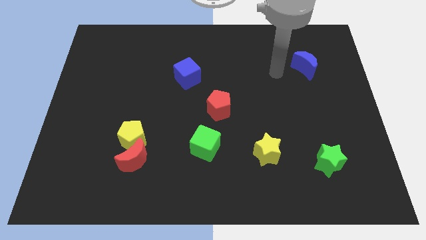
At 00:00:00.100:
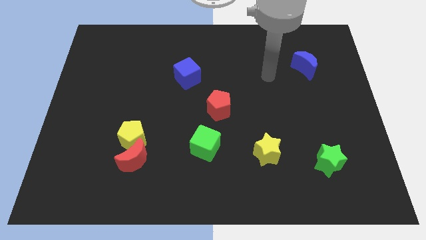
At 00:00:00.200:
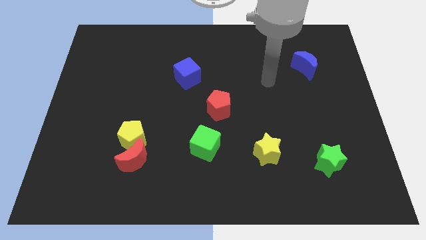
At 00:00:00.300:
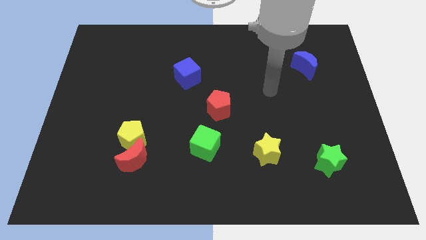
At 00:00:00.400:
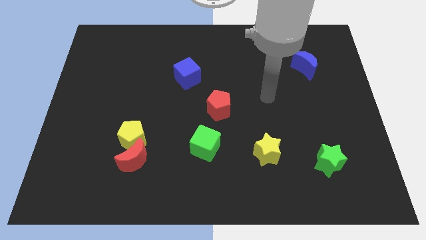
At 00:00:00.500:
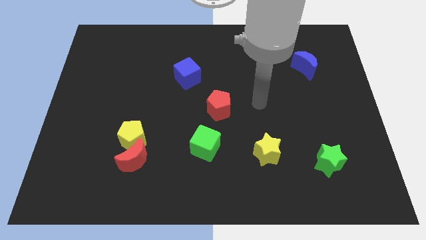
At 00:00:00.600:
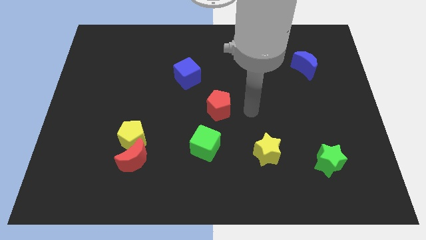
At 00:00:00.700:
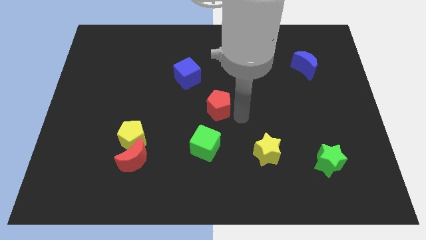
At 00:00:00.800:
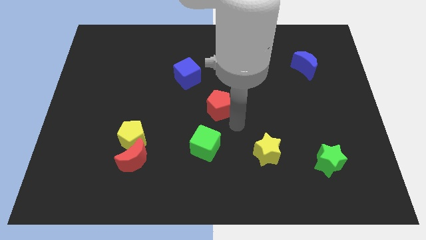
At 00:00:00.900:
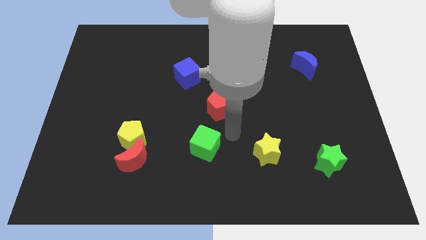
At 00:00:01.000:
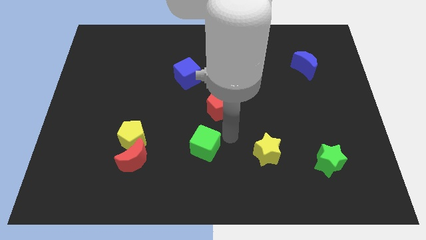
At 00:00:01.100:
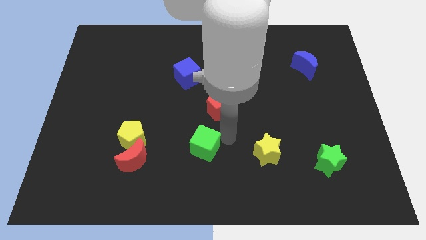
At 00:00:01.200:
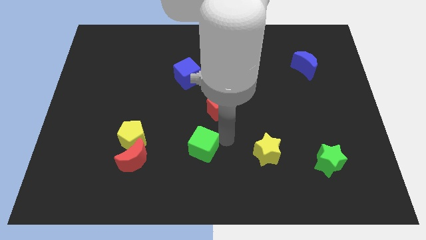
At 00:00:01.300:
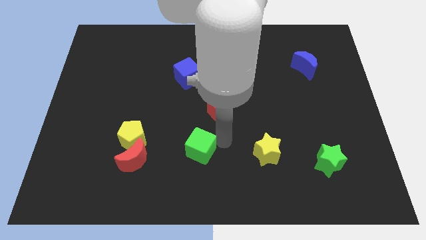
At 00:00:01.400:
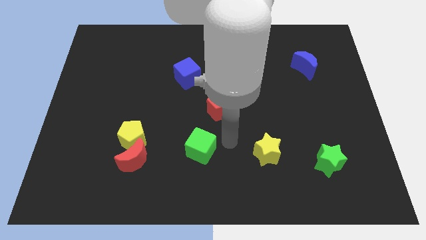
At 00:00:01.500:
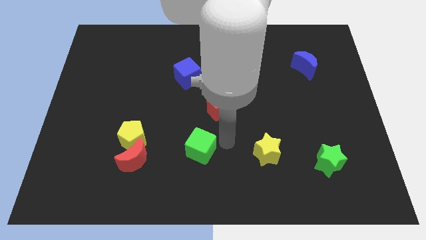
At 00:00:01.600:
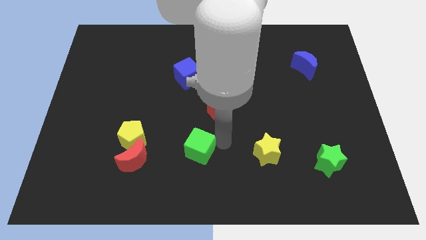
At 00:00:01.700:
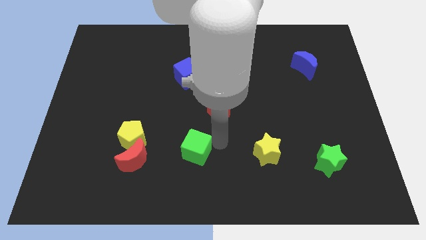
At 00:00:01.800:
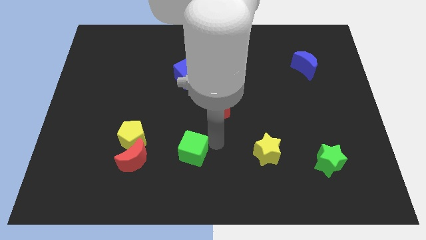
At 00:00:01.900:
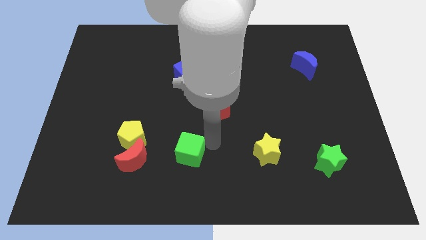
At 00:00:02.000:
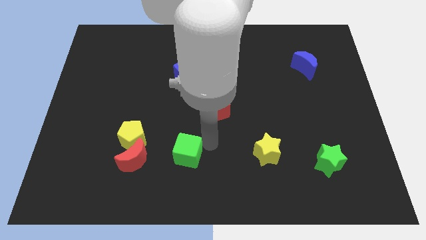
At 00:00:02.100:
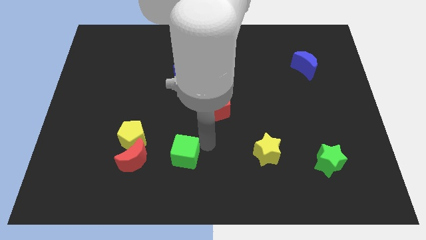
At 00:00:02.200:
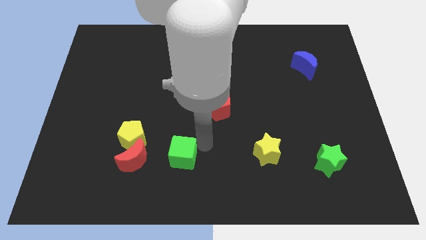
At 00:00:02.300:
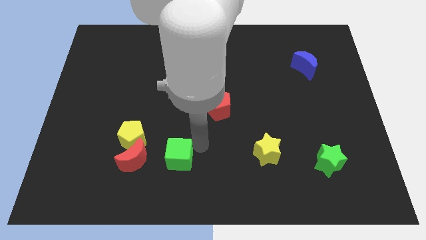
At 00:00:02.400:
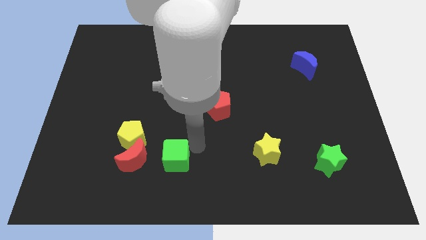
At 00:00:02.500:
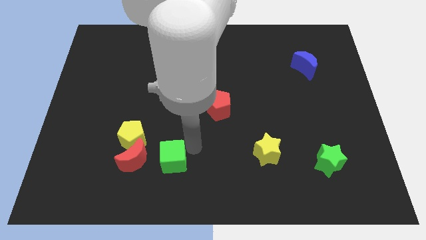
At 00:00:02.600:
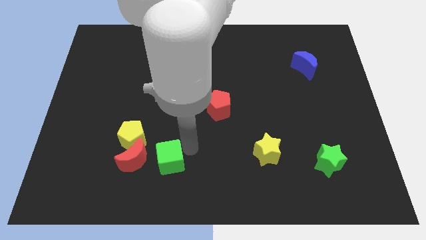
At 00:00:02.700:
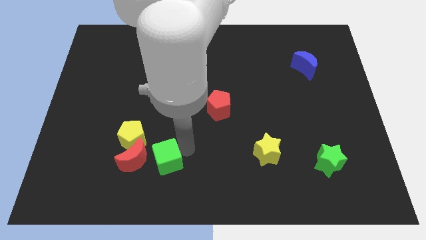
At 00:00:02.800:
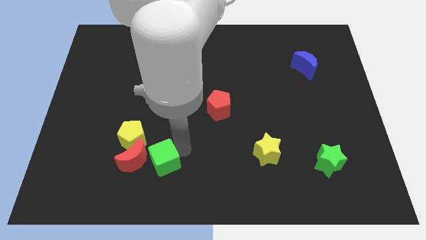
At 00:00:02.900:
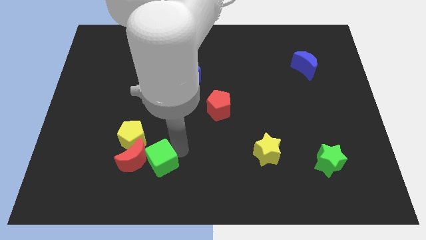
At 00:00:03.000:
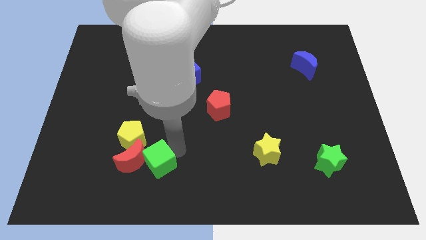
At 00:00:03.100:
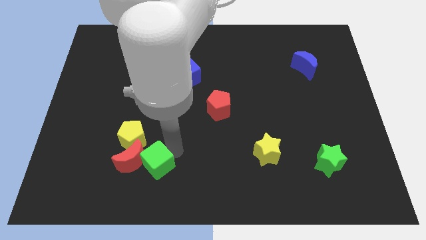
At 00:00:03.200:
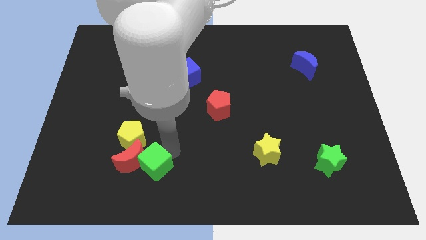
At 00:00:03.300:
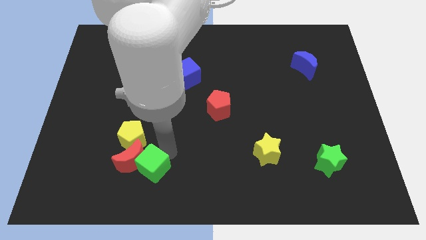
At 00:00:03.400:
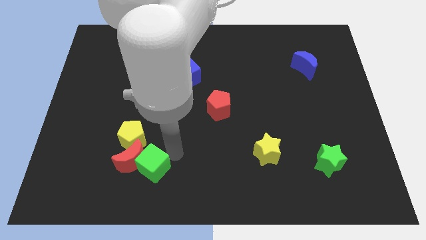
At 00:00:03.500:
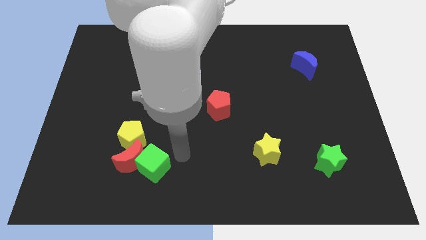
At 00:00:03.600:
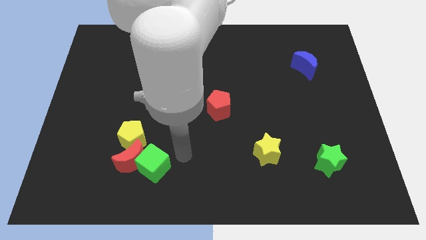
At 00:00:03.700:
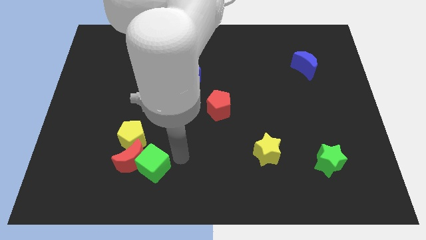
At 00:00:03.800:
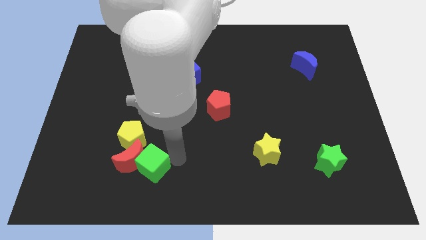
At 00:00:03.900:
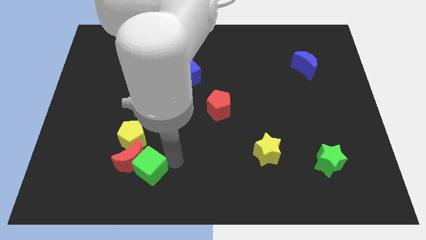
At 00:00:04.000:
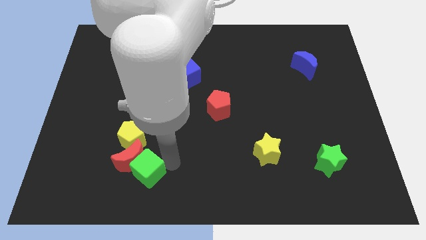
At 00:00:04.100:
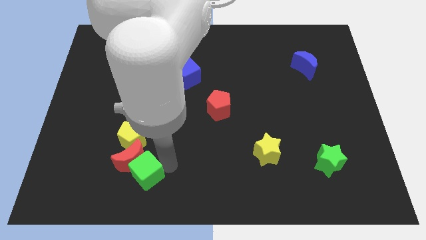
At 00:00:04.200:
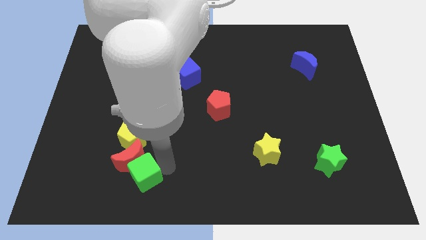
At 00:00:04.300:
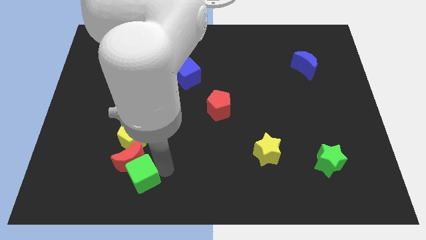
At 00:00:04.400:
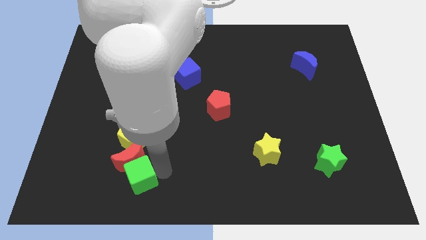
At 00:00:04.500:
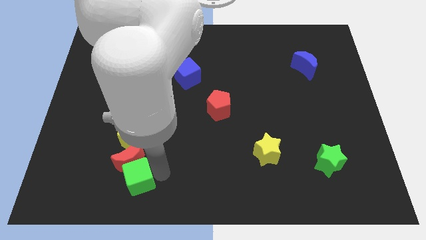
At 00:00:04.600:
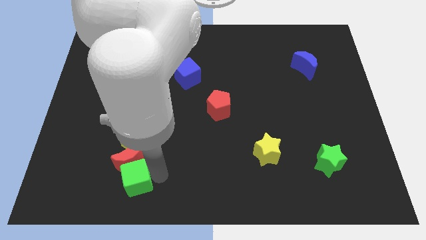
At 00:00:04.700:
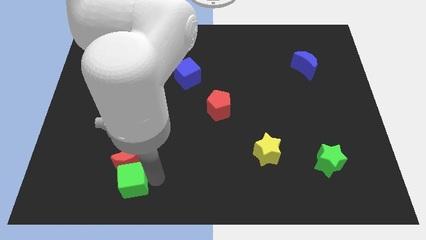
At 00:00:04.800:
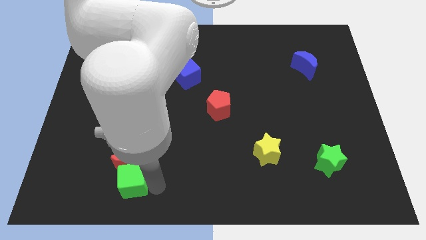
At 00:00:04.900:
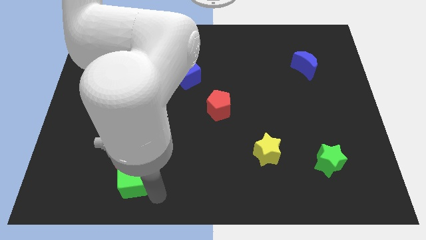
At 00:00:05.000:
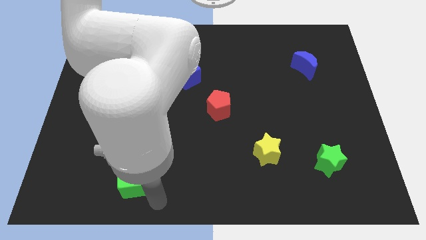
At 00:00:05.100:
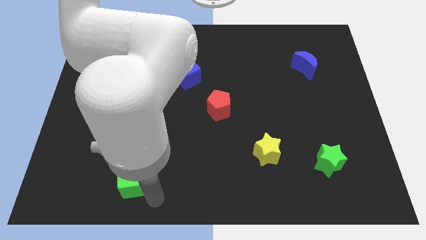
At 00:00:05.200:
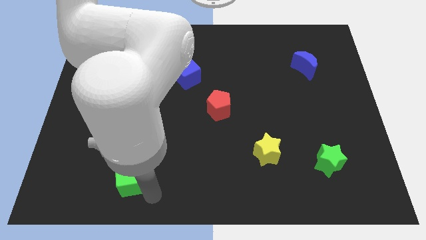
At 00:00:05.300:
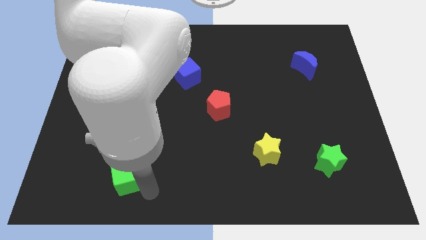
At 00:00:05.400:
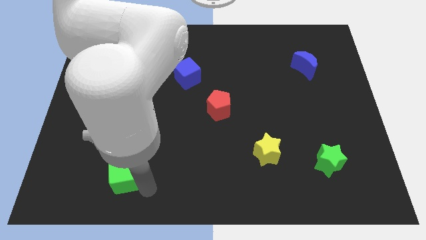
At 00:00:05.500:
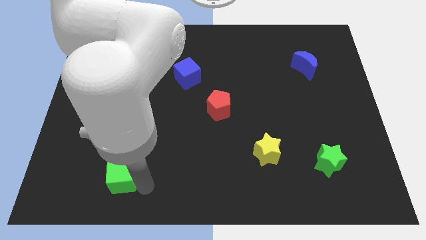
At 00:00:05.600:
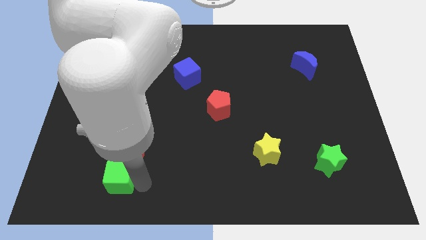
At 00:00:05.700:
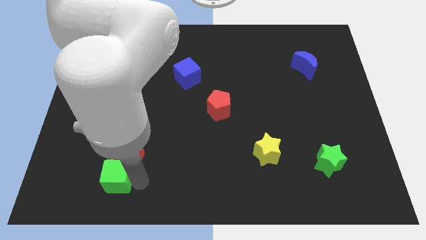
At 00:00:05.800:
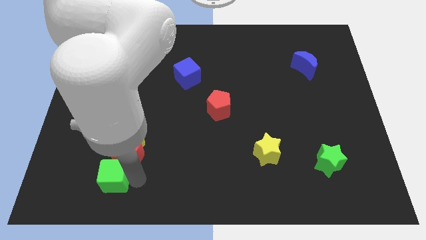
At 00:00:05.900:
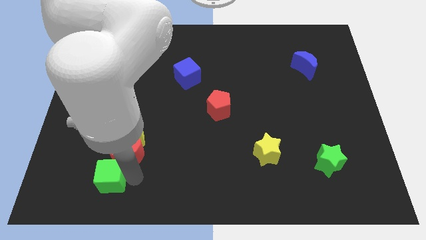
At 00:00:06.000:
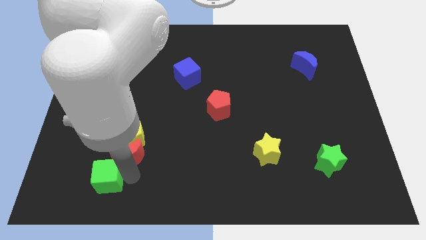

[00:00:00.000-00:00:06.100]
put the green cube to the bottom left of the yellow pentagon

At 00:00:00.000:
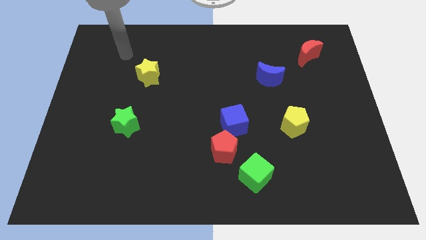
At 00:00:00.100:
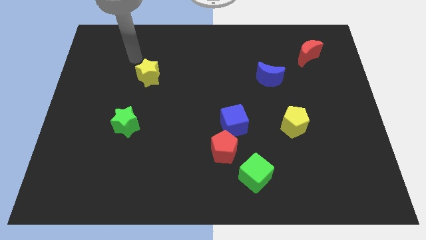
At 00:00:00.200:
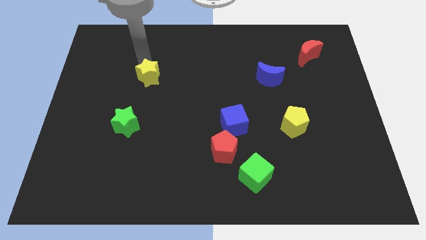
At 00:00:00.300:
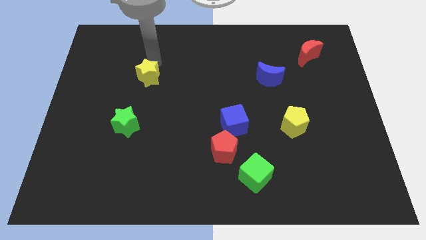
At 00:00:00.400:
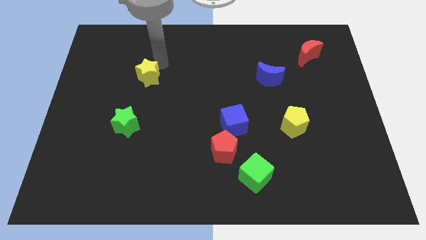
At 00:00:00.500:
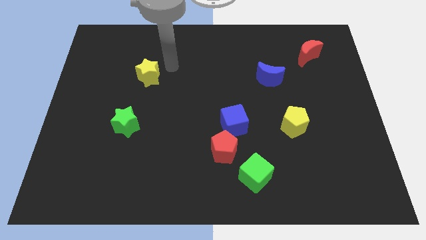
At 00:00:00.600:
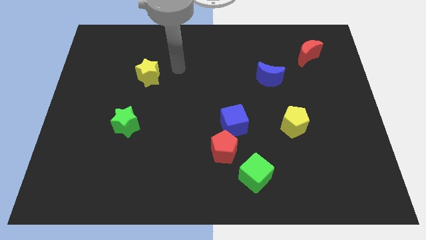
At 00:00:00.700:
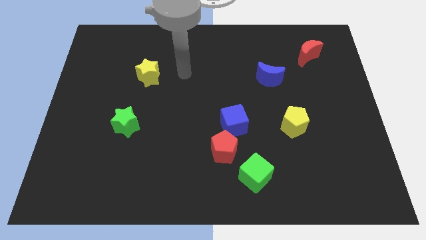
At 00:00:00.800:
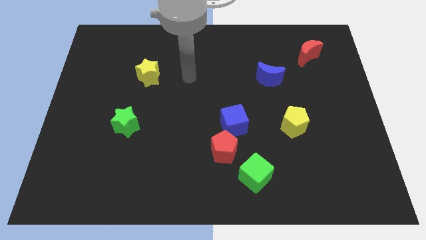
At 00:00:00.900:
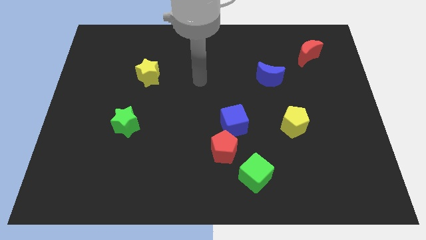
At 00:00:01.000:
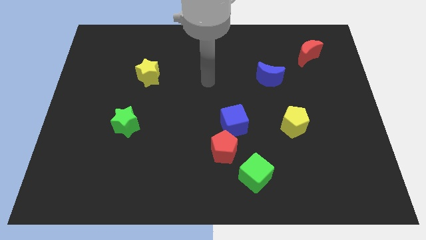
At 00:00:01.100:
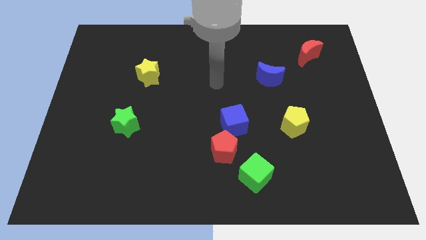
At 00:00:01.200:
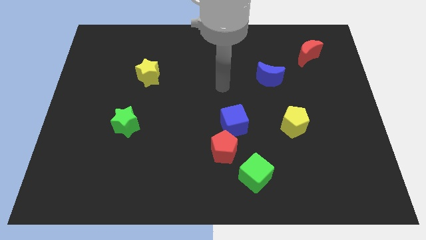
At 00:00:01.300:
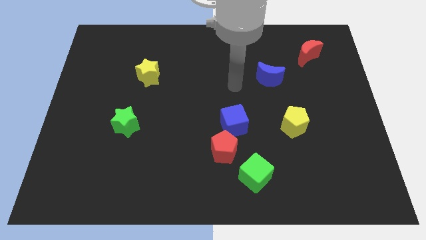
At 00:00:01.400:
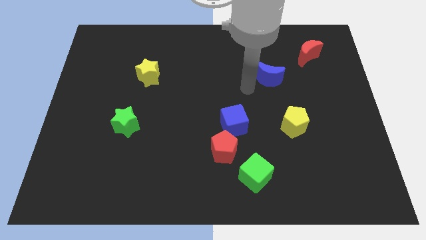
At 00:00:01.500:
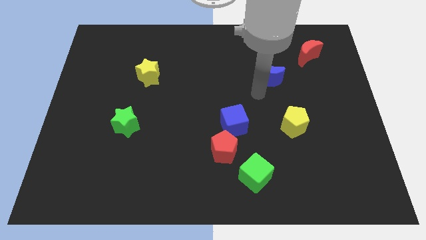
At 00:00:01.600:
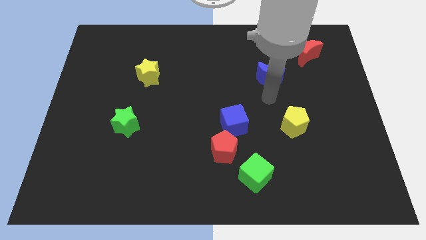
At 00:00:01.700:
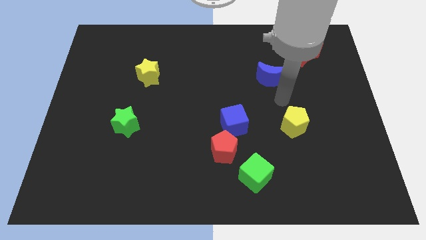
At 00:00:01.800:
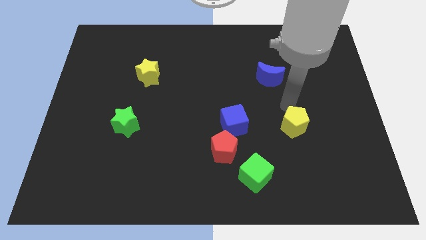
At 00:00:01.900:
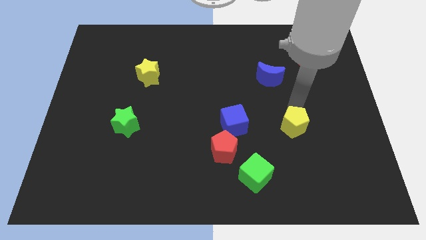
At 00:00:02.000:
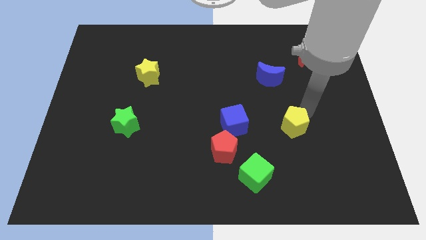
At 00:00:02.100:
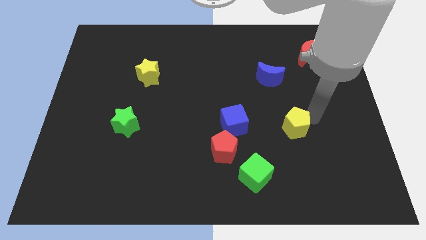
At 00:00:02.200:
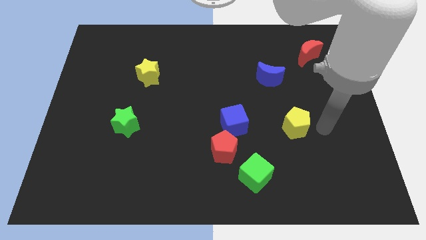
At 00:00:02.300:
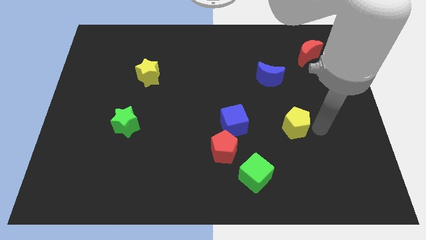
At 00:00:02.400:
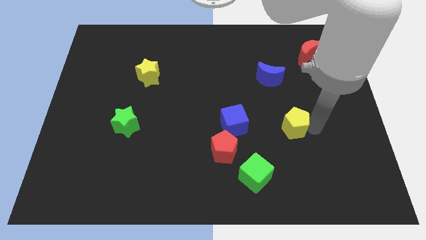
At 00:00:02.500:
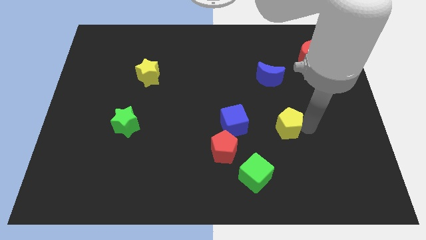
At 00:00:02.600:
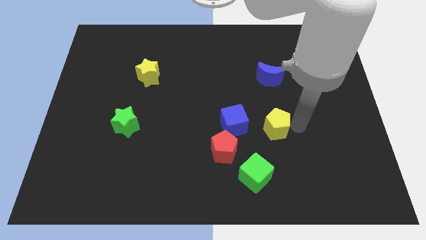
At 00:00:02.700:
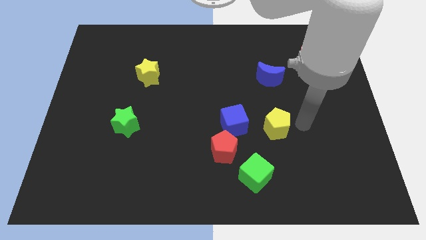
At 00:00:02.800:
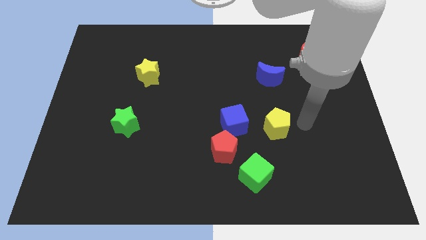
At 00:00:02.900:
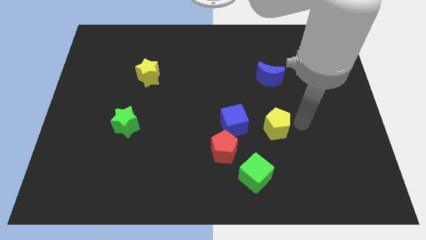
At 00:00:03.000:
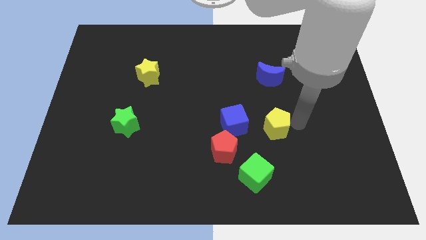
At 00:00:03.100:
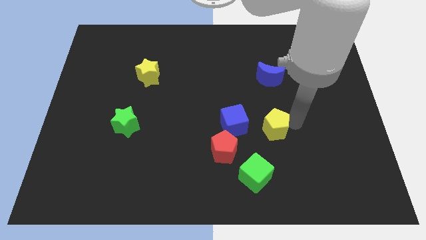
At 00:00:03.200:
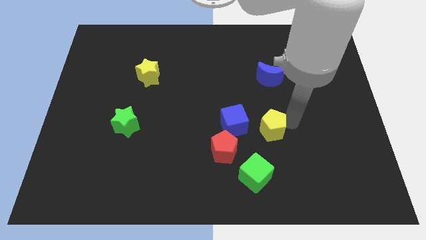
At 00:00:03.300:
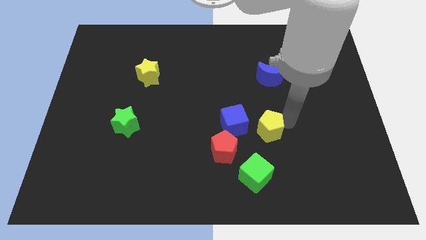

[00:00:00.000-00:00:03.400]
move the yellow pentagon diagonally up and to the right of the red pentagon
